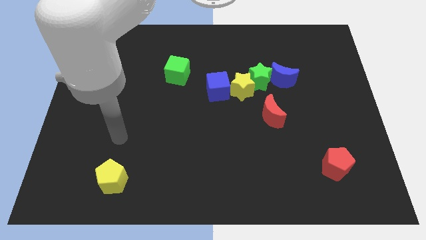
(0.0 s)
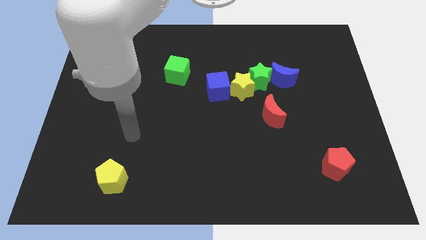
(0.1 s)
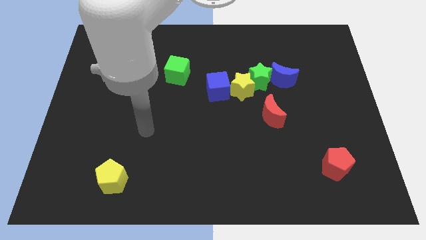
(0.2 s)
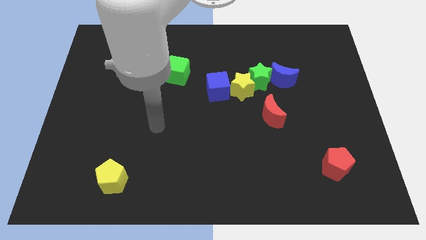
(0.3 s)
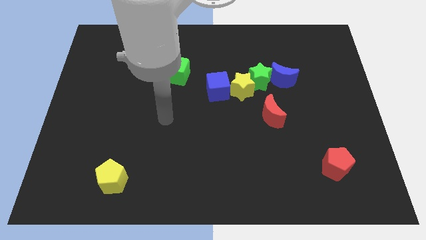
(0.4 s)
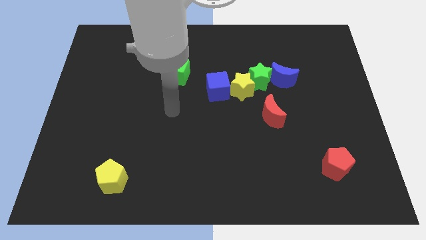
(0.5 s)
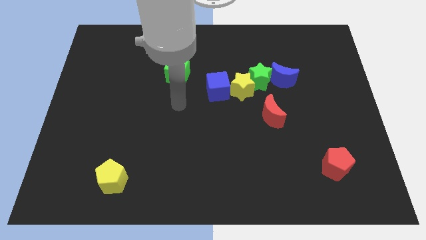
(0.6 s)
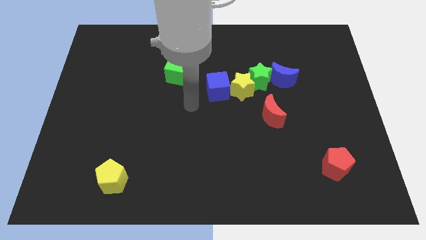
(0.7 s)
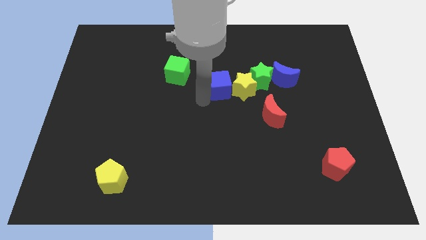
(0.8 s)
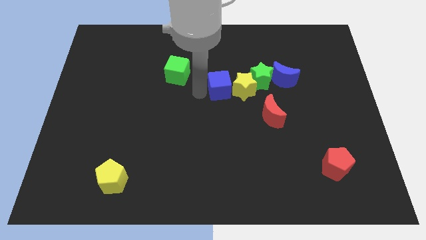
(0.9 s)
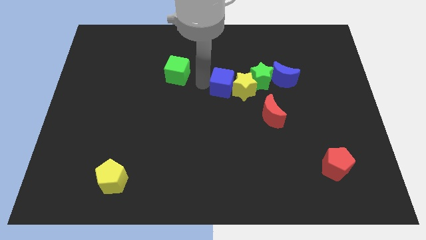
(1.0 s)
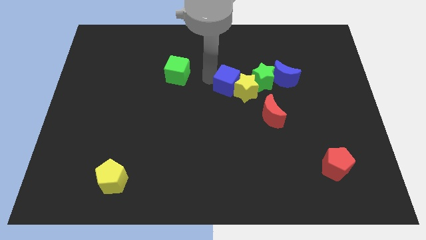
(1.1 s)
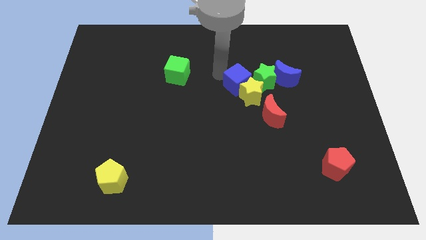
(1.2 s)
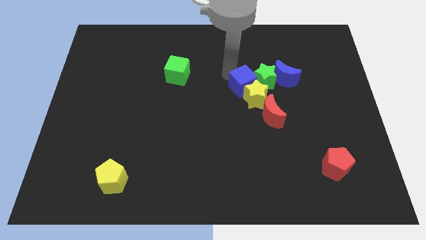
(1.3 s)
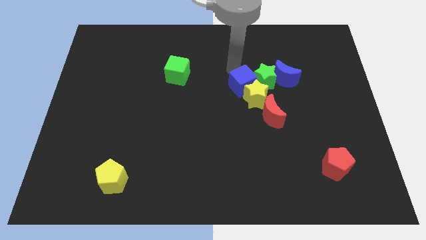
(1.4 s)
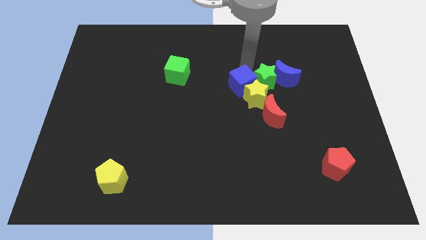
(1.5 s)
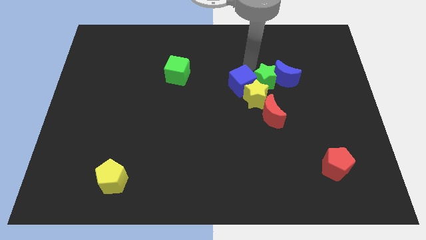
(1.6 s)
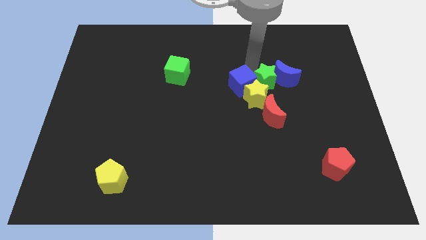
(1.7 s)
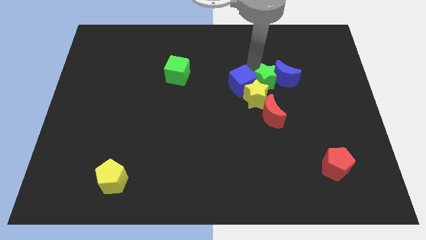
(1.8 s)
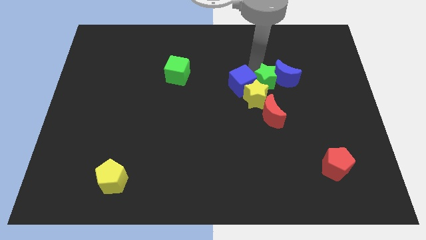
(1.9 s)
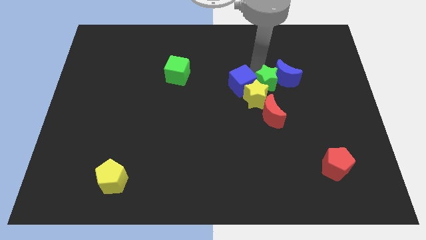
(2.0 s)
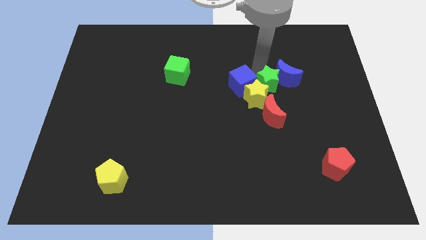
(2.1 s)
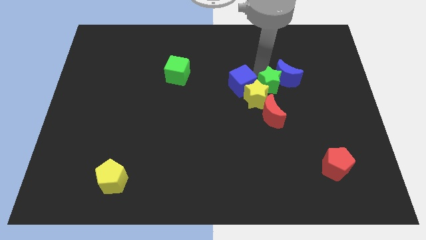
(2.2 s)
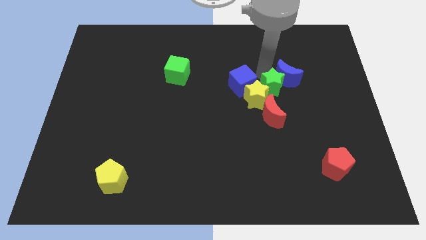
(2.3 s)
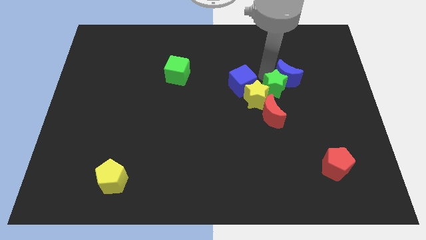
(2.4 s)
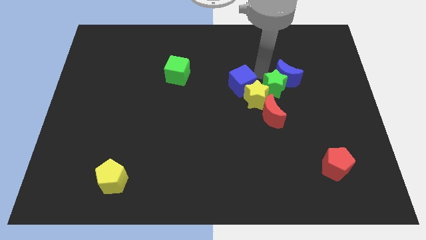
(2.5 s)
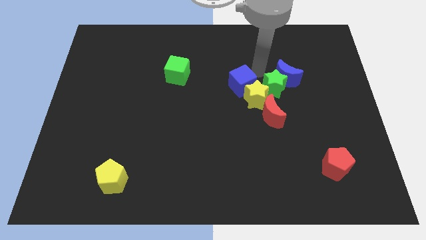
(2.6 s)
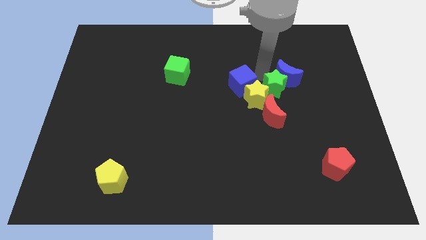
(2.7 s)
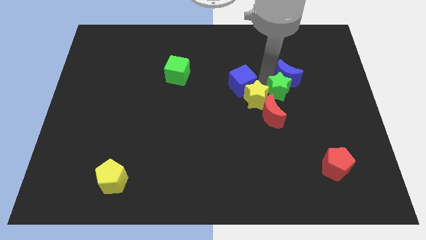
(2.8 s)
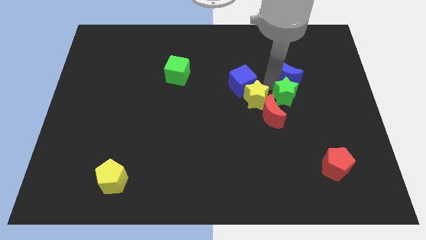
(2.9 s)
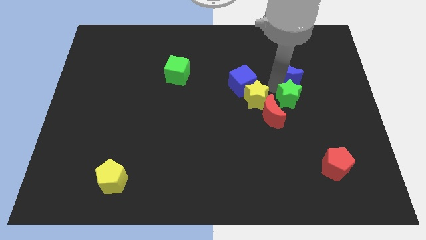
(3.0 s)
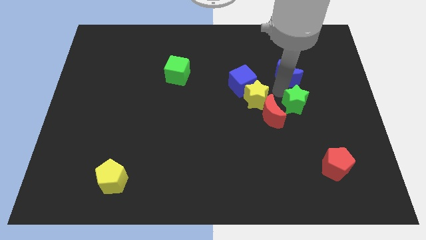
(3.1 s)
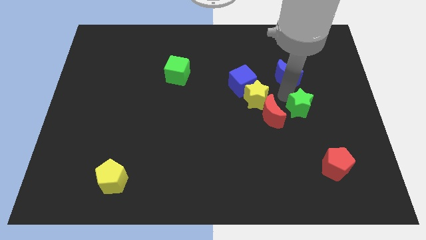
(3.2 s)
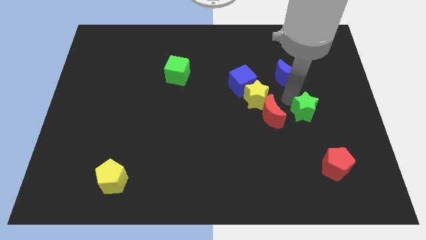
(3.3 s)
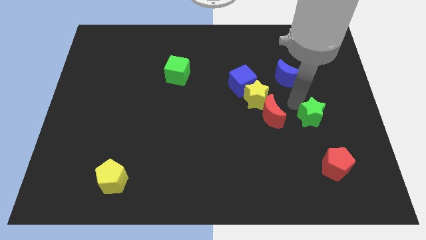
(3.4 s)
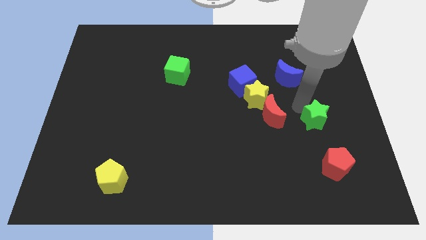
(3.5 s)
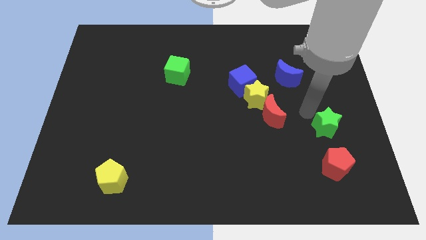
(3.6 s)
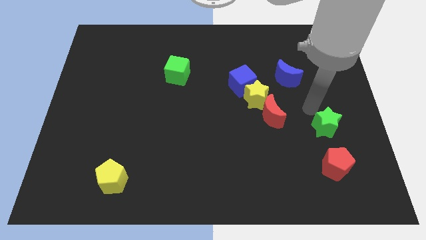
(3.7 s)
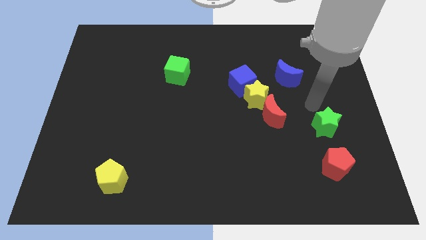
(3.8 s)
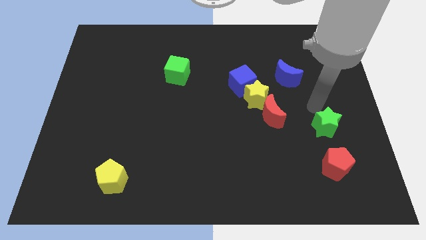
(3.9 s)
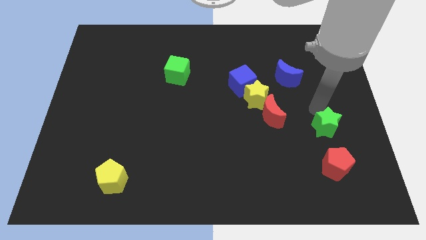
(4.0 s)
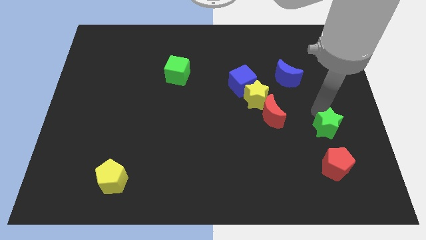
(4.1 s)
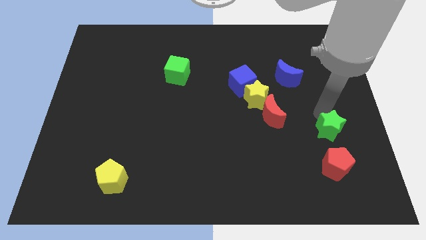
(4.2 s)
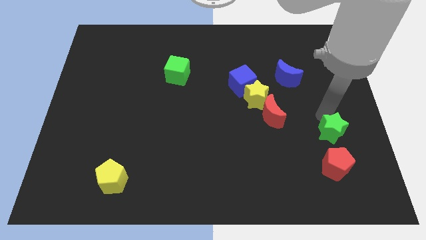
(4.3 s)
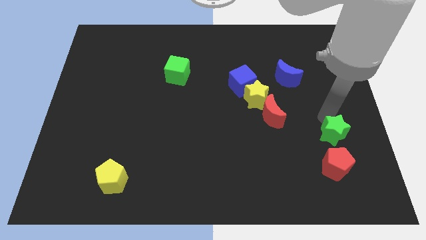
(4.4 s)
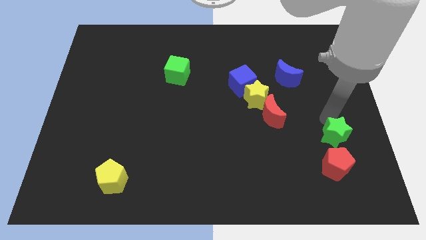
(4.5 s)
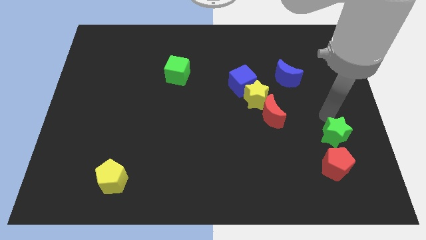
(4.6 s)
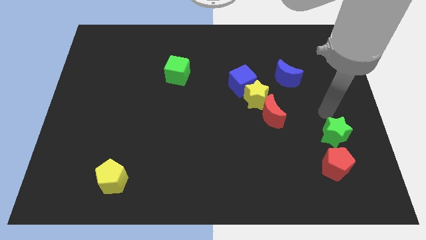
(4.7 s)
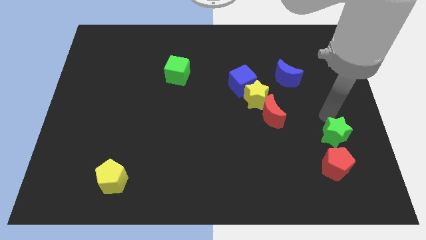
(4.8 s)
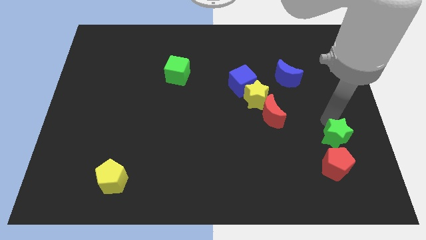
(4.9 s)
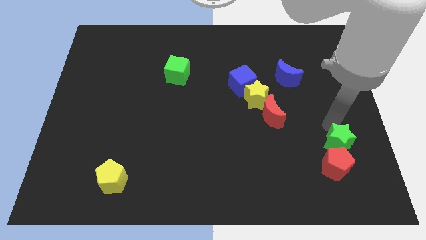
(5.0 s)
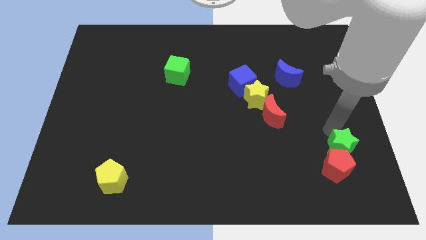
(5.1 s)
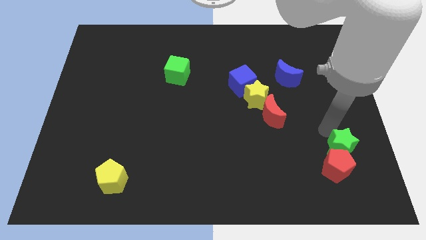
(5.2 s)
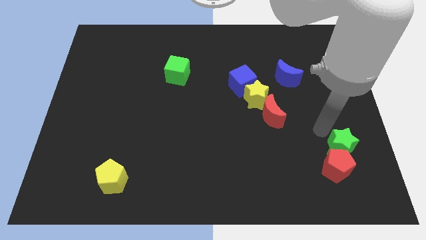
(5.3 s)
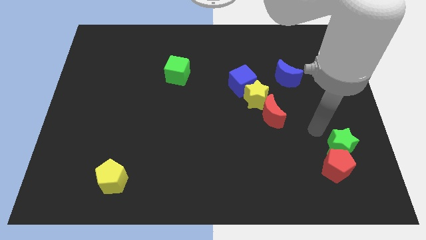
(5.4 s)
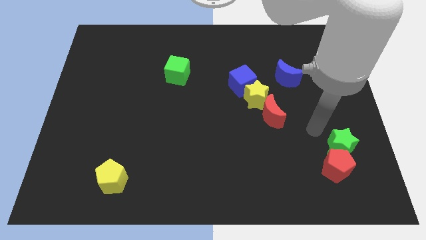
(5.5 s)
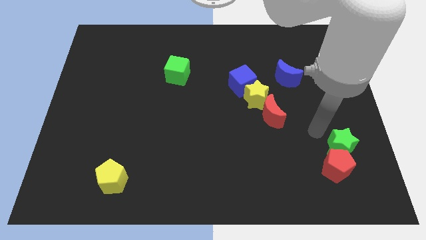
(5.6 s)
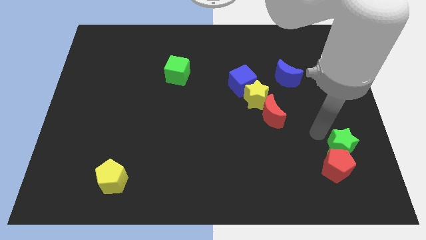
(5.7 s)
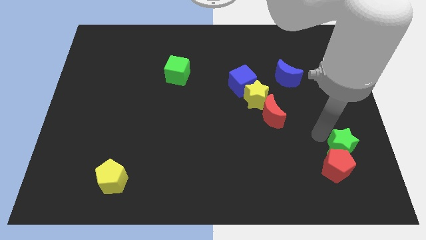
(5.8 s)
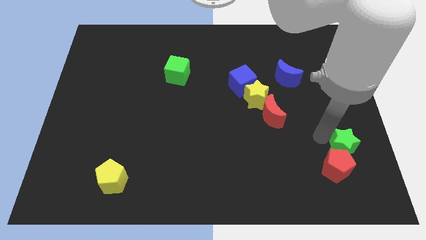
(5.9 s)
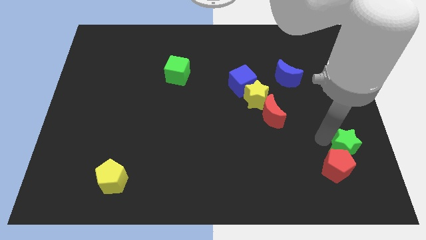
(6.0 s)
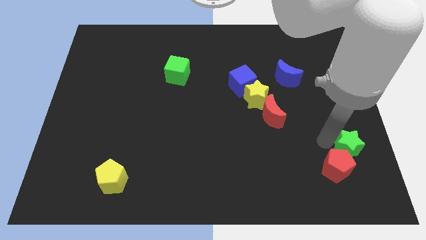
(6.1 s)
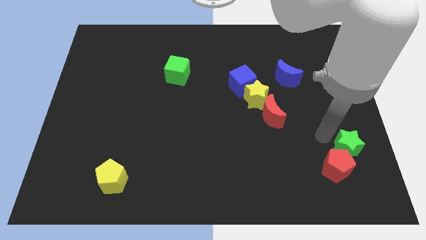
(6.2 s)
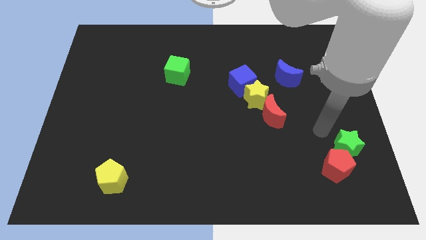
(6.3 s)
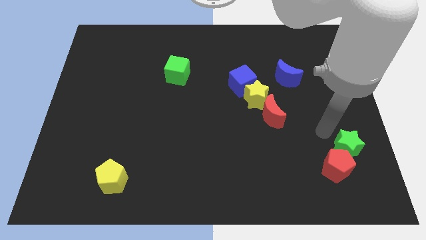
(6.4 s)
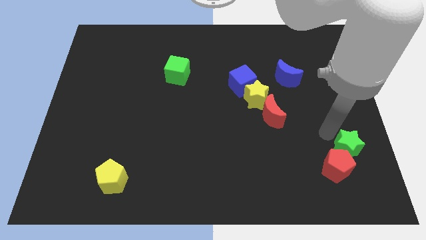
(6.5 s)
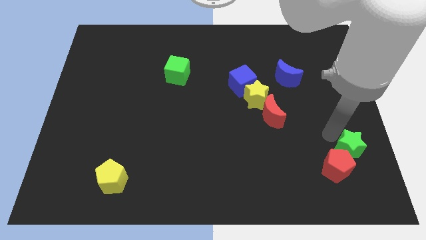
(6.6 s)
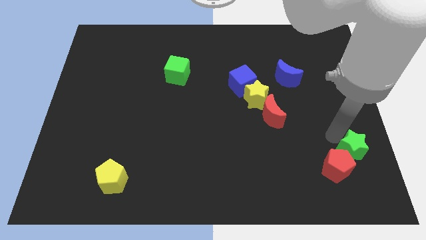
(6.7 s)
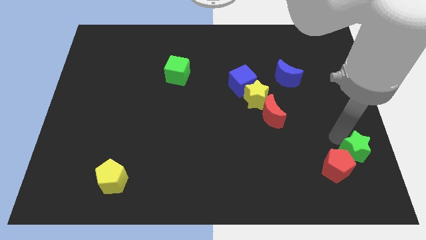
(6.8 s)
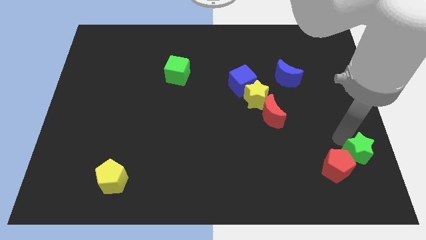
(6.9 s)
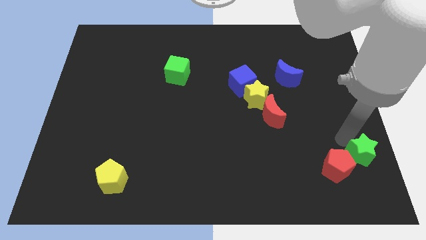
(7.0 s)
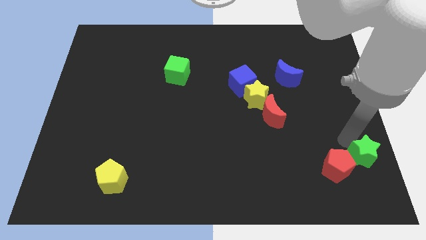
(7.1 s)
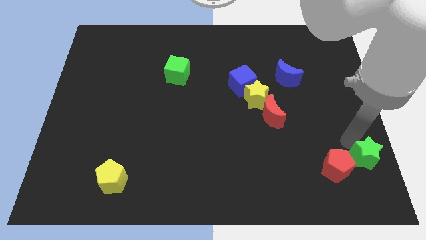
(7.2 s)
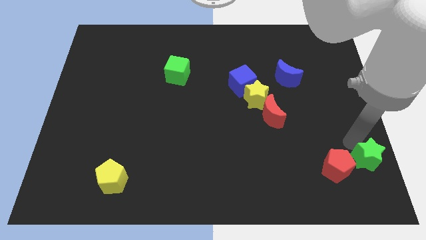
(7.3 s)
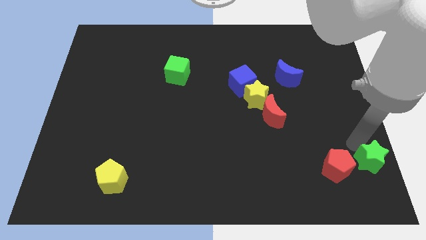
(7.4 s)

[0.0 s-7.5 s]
slide the green star to the lower right corner
